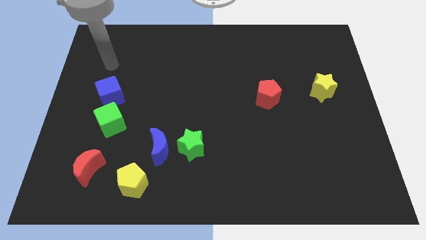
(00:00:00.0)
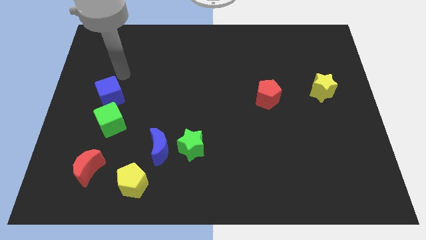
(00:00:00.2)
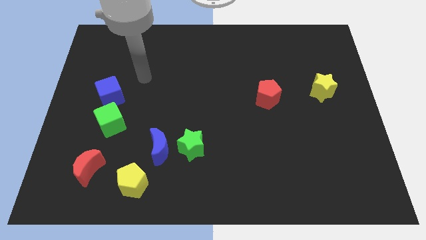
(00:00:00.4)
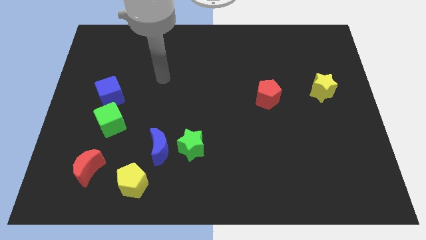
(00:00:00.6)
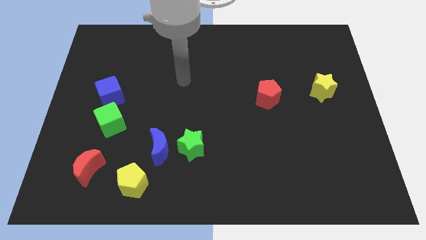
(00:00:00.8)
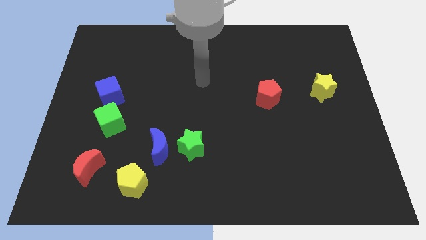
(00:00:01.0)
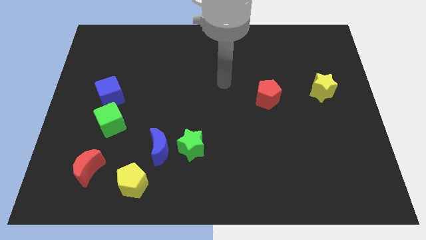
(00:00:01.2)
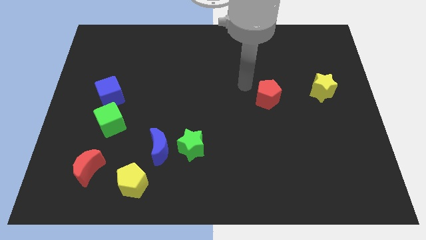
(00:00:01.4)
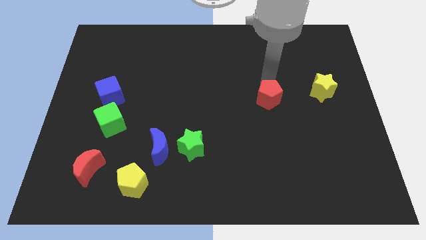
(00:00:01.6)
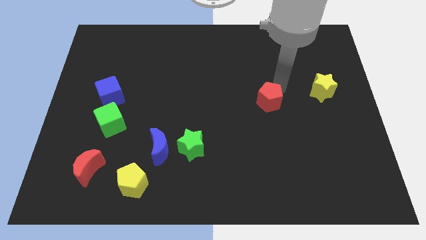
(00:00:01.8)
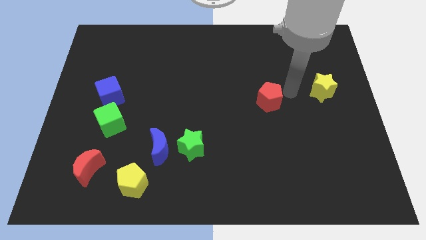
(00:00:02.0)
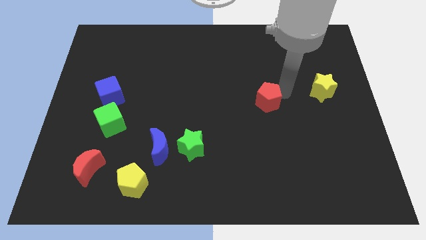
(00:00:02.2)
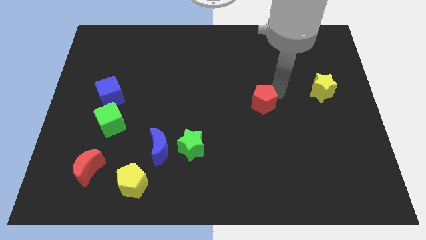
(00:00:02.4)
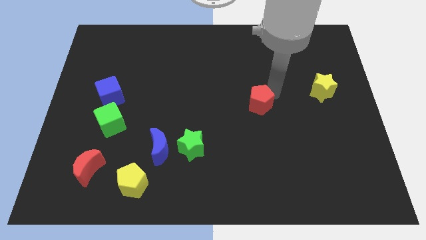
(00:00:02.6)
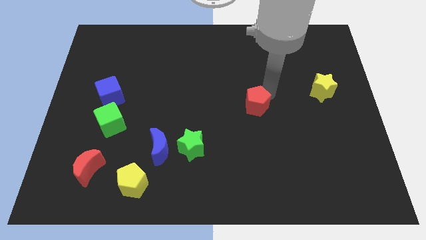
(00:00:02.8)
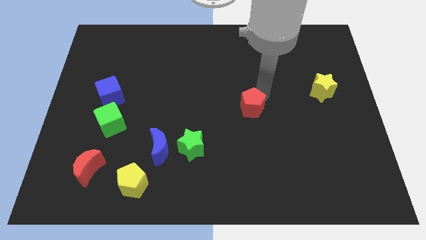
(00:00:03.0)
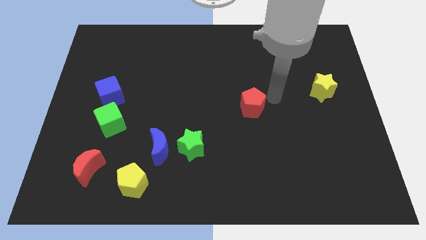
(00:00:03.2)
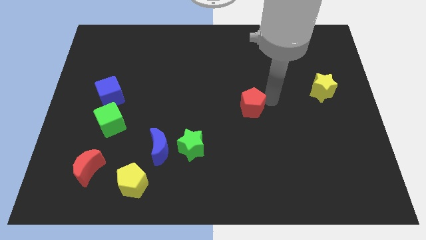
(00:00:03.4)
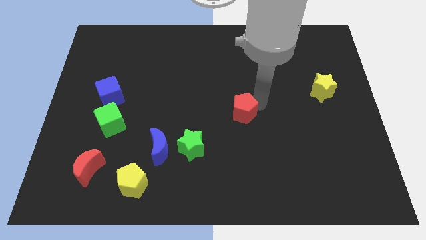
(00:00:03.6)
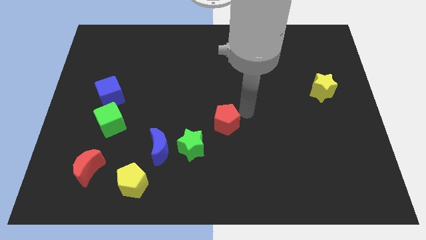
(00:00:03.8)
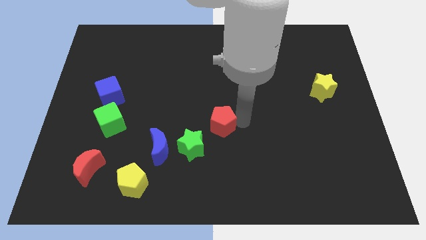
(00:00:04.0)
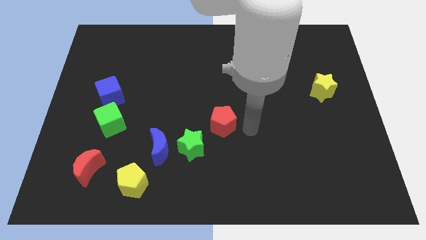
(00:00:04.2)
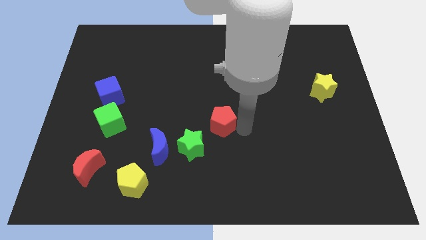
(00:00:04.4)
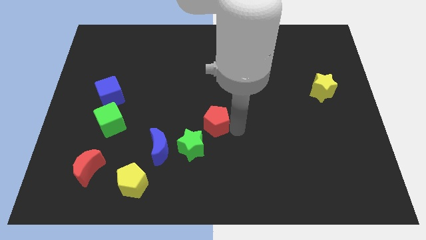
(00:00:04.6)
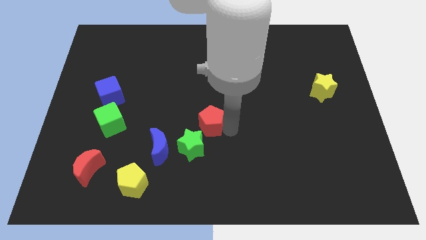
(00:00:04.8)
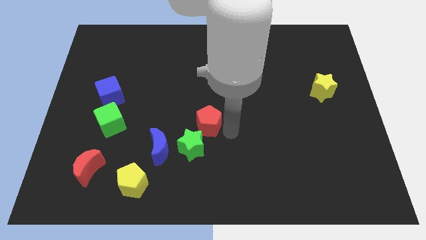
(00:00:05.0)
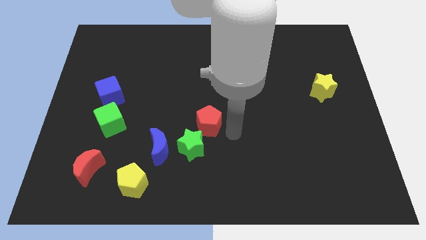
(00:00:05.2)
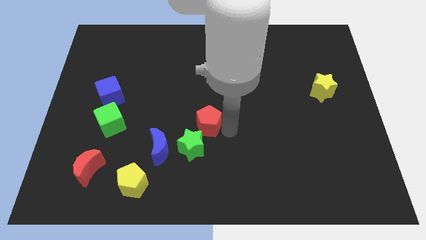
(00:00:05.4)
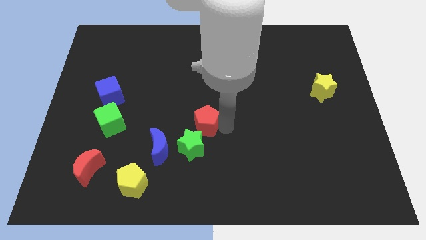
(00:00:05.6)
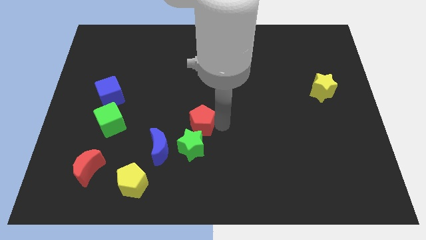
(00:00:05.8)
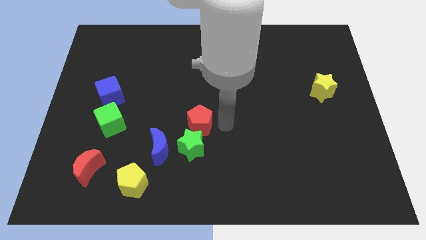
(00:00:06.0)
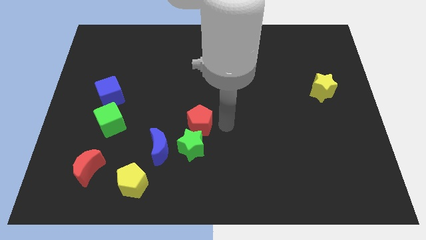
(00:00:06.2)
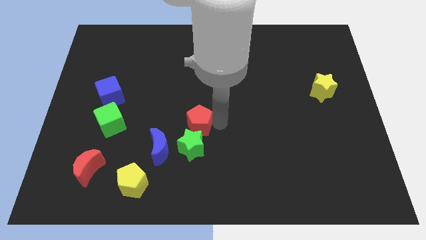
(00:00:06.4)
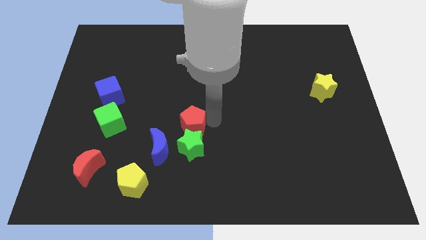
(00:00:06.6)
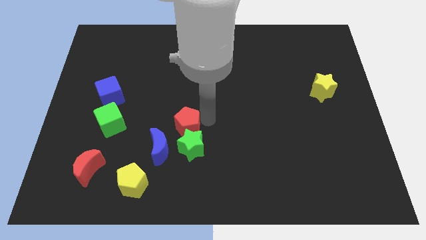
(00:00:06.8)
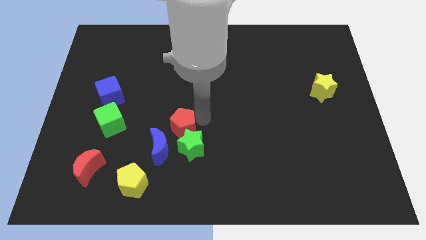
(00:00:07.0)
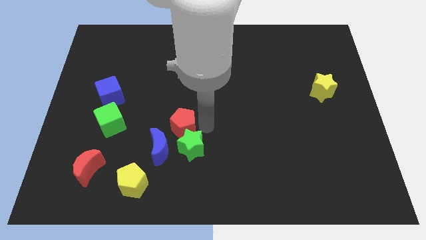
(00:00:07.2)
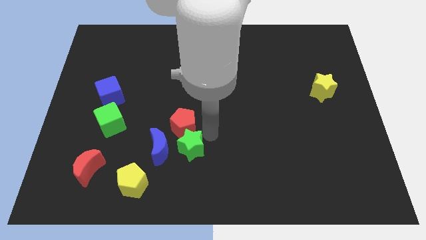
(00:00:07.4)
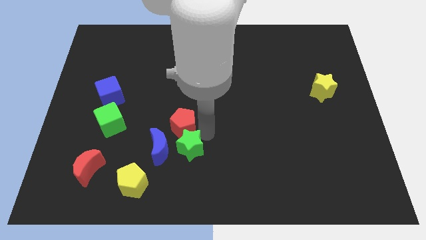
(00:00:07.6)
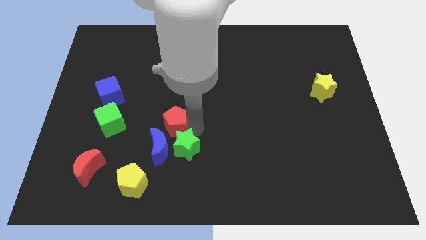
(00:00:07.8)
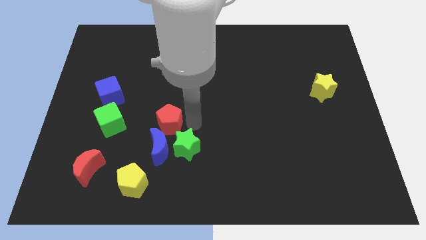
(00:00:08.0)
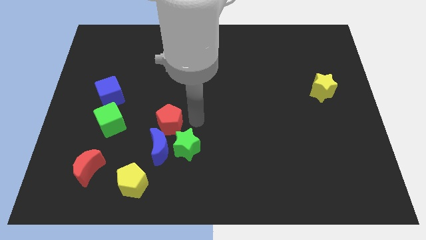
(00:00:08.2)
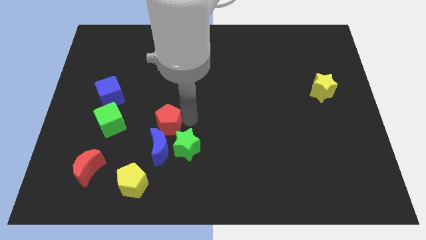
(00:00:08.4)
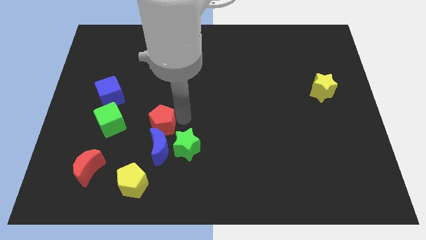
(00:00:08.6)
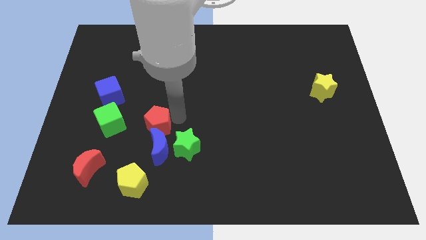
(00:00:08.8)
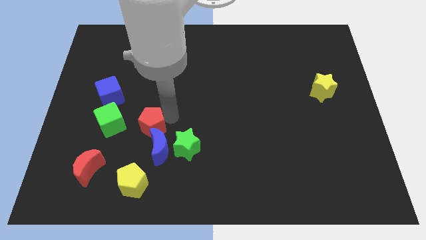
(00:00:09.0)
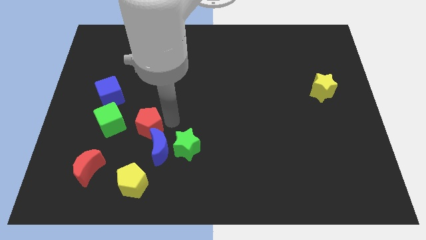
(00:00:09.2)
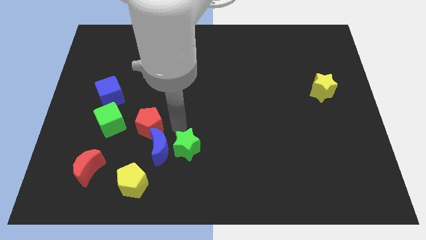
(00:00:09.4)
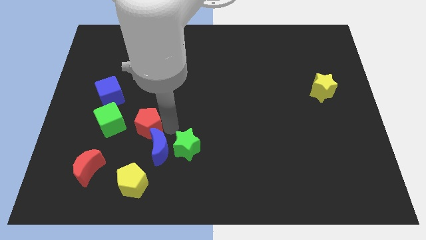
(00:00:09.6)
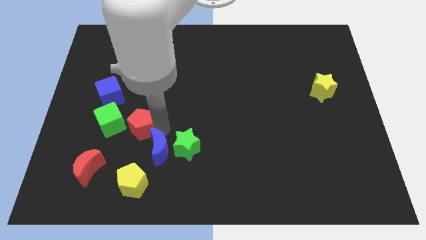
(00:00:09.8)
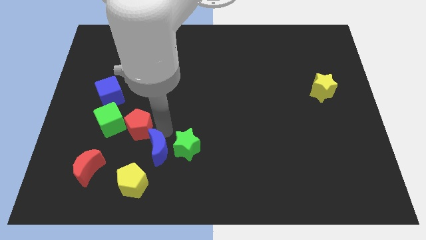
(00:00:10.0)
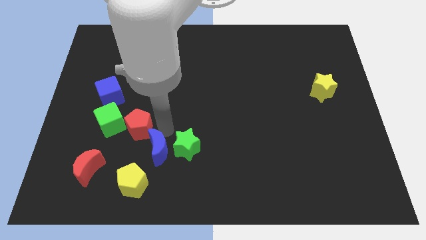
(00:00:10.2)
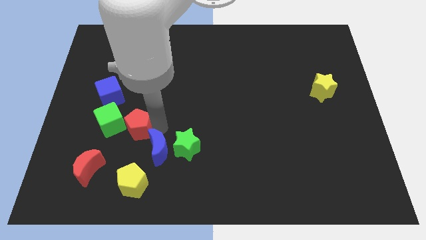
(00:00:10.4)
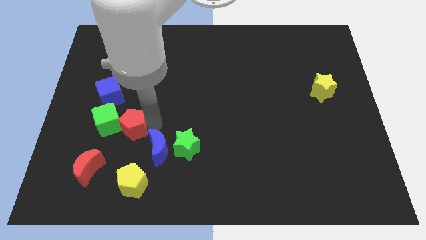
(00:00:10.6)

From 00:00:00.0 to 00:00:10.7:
move the red pentagon to the green cube

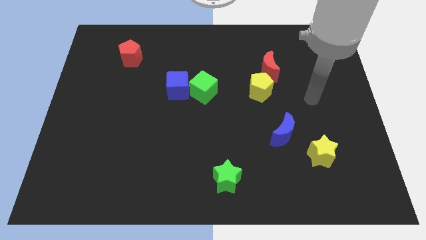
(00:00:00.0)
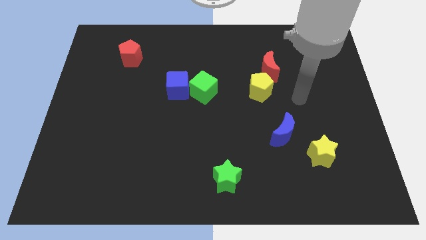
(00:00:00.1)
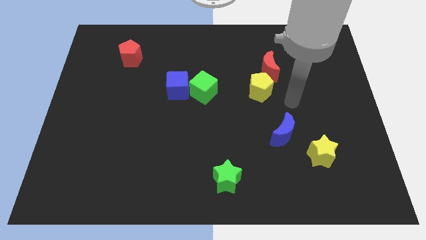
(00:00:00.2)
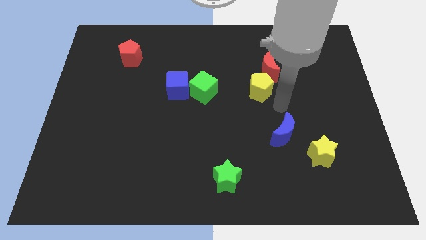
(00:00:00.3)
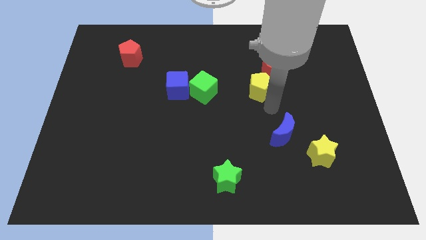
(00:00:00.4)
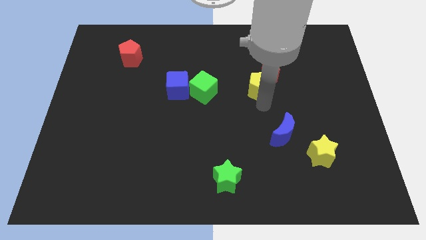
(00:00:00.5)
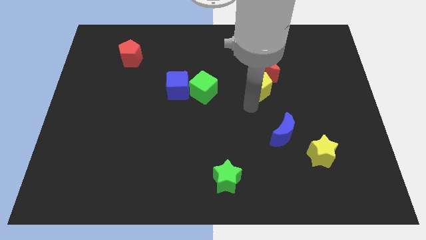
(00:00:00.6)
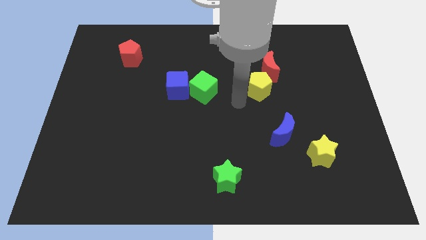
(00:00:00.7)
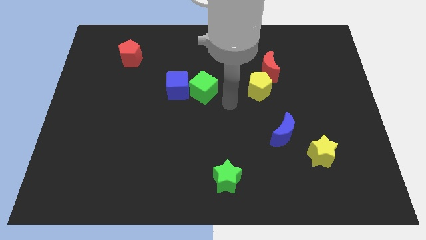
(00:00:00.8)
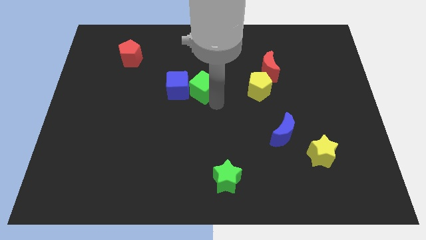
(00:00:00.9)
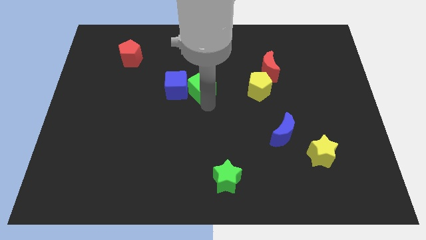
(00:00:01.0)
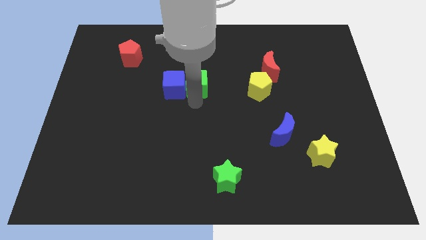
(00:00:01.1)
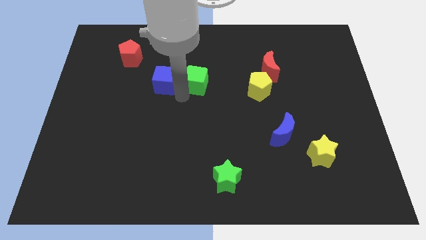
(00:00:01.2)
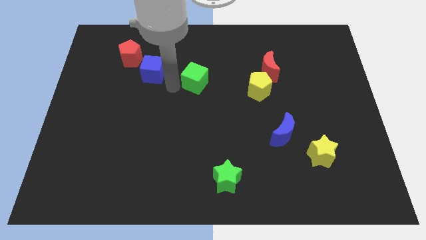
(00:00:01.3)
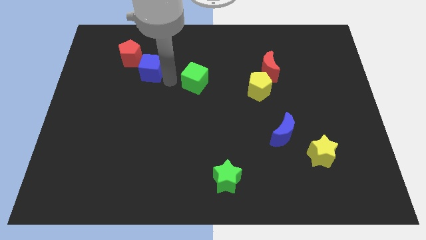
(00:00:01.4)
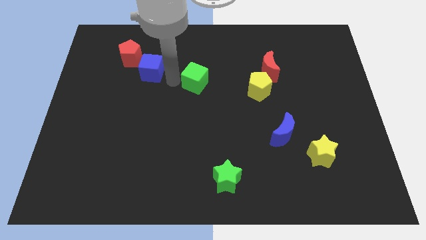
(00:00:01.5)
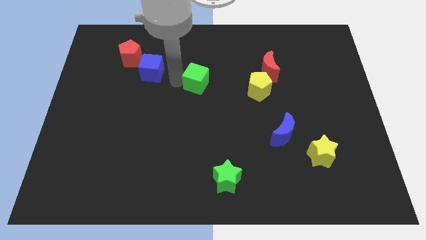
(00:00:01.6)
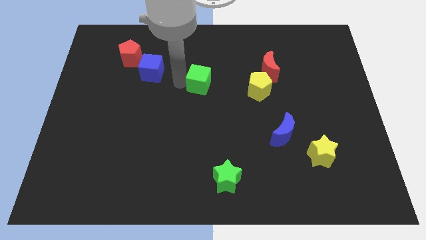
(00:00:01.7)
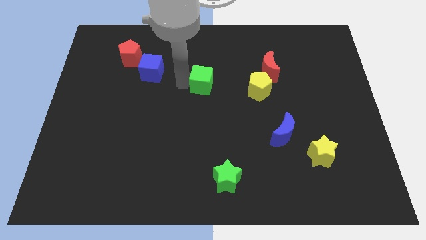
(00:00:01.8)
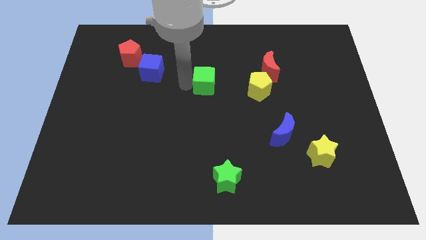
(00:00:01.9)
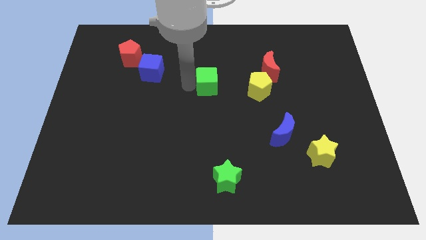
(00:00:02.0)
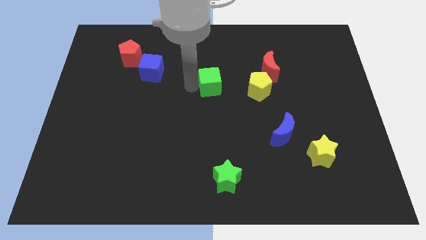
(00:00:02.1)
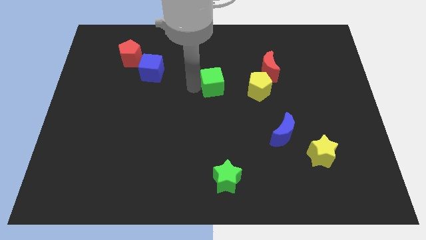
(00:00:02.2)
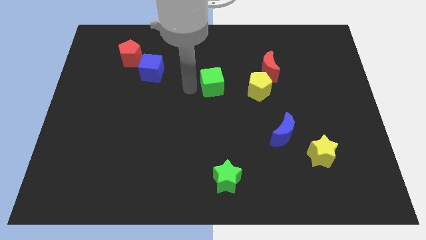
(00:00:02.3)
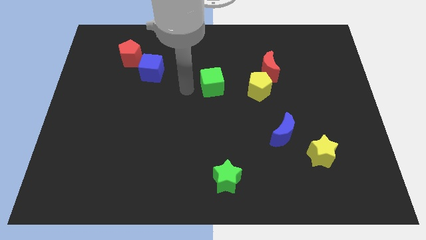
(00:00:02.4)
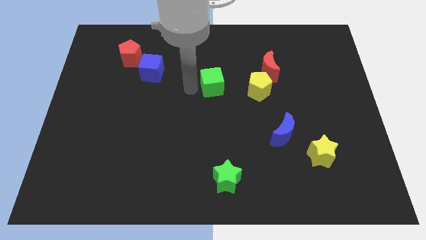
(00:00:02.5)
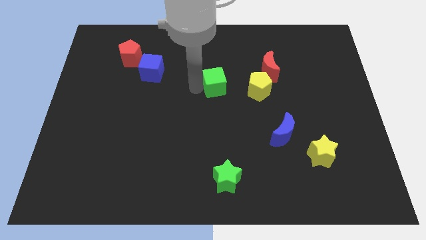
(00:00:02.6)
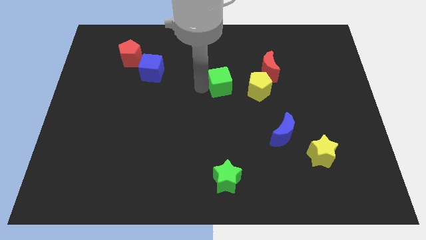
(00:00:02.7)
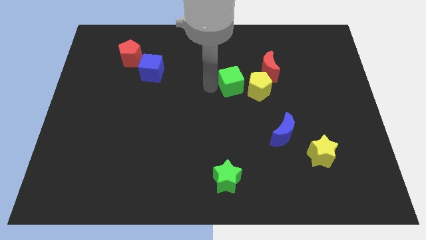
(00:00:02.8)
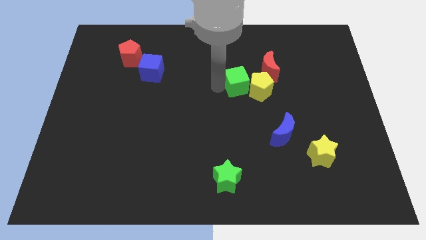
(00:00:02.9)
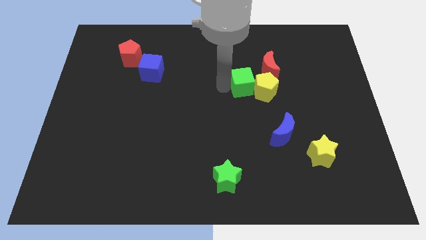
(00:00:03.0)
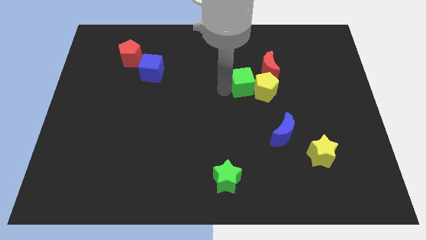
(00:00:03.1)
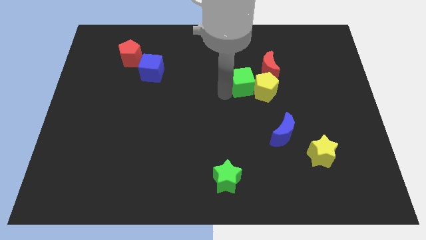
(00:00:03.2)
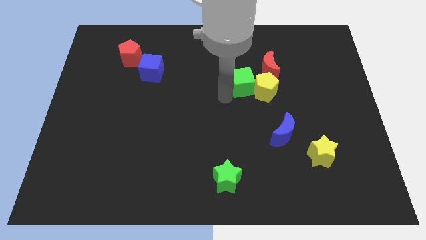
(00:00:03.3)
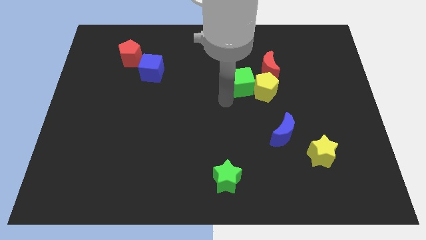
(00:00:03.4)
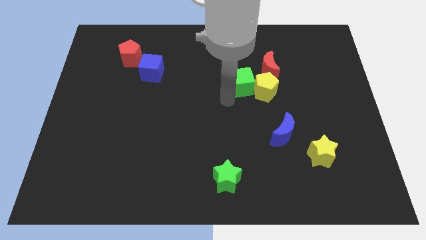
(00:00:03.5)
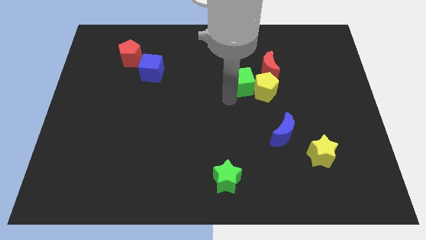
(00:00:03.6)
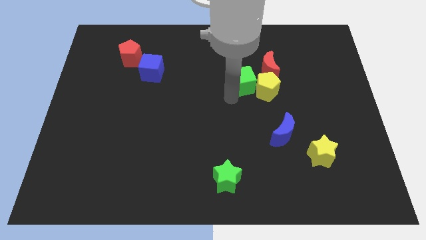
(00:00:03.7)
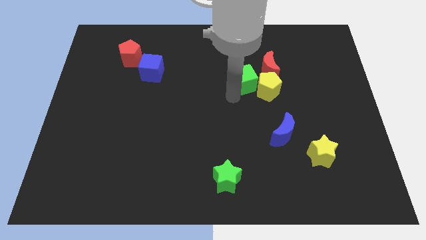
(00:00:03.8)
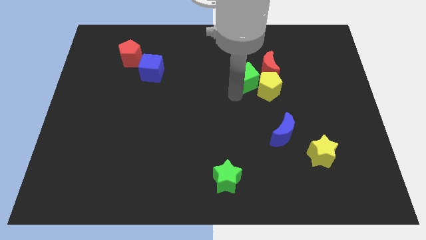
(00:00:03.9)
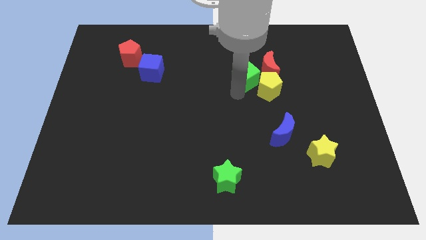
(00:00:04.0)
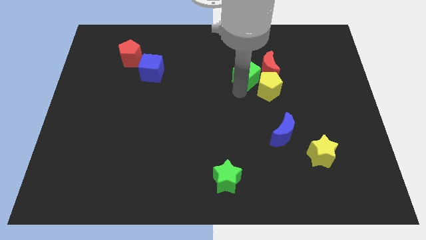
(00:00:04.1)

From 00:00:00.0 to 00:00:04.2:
slide the green cube close to the red moon
